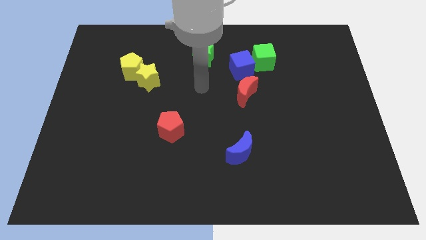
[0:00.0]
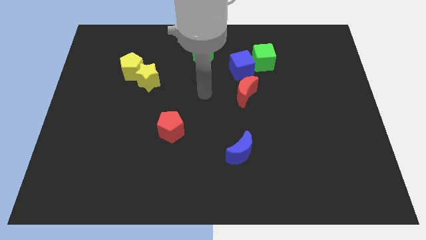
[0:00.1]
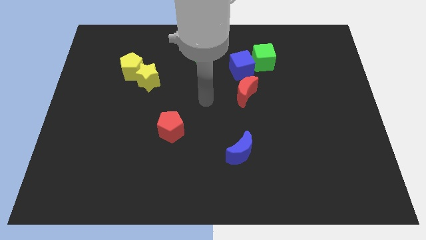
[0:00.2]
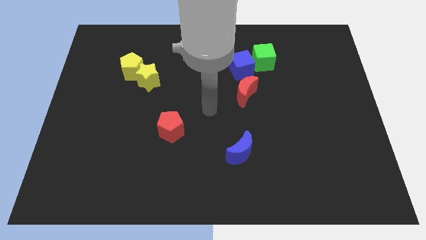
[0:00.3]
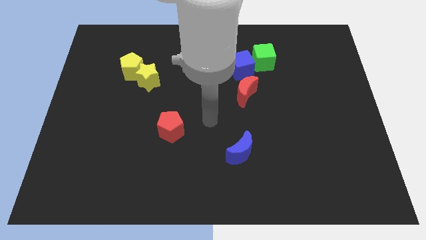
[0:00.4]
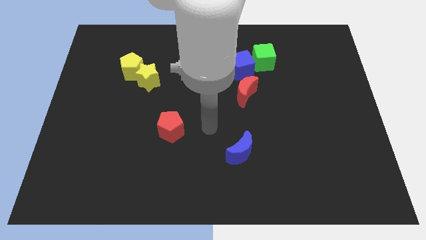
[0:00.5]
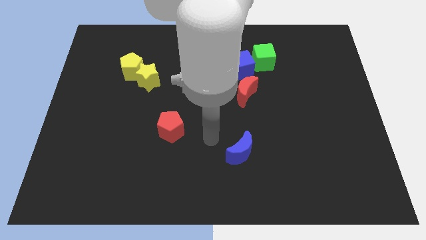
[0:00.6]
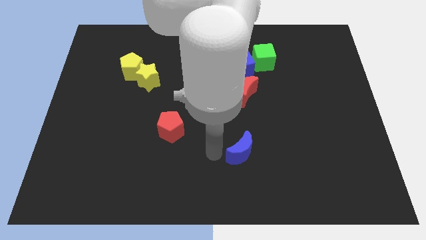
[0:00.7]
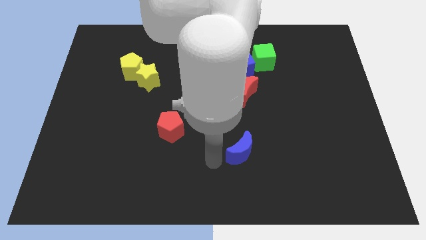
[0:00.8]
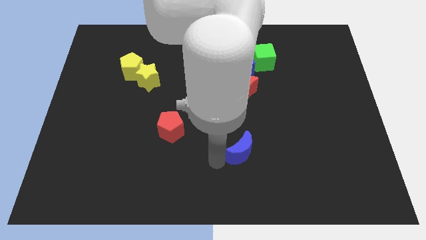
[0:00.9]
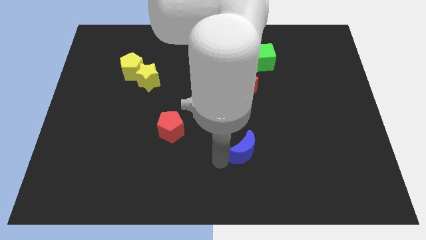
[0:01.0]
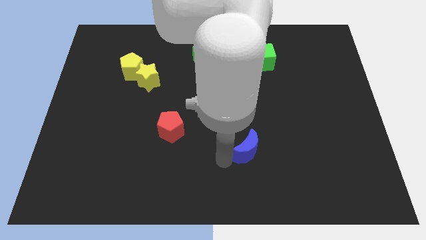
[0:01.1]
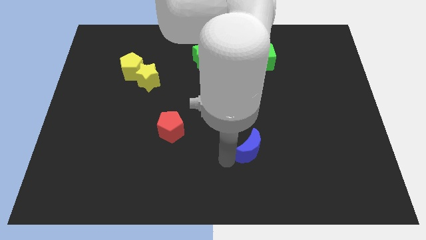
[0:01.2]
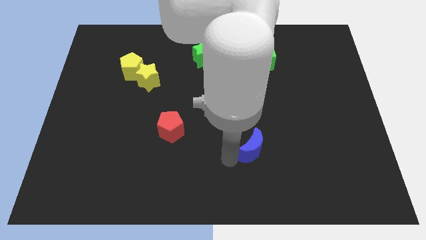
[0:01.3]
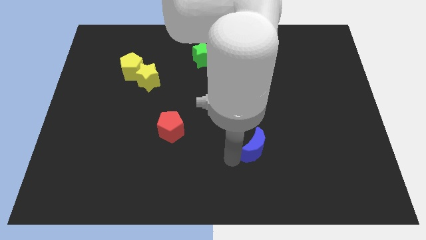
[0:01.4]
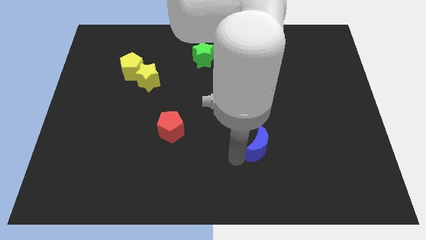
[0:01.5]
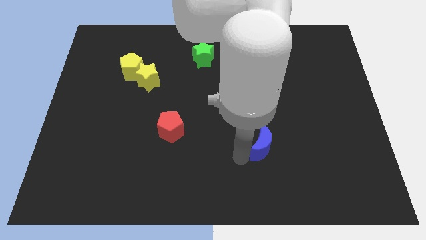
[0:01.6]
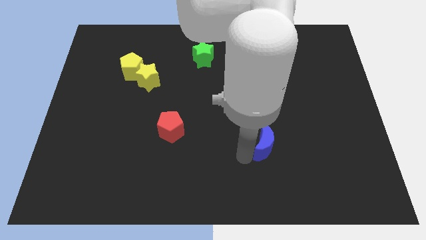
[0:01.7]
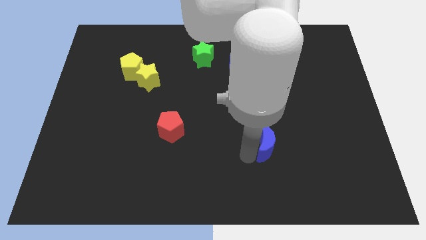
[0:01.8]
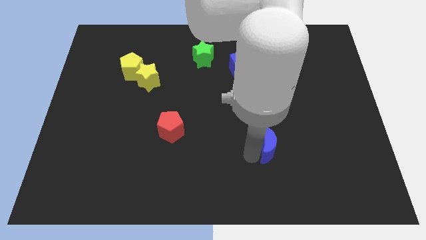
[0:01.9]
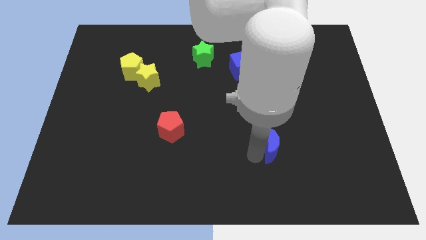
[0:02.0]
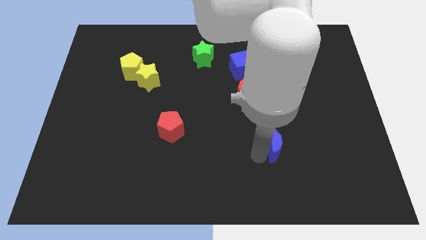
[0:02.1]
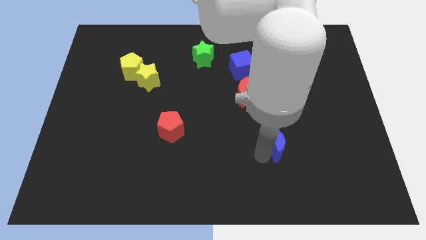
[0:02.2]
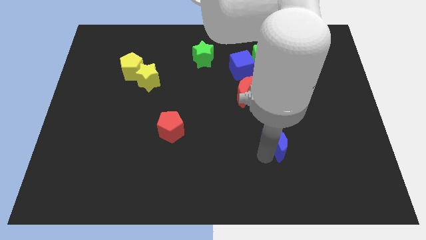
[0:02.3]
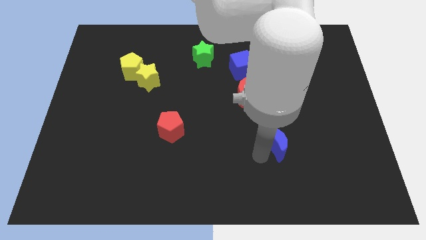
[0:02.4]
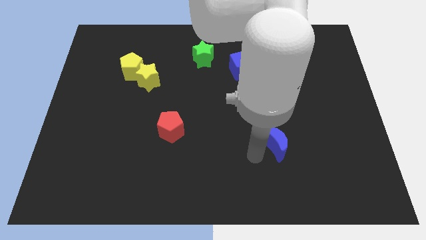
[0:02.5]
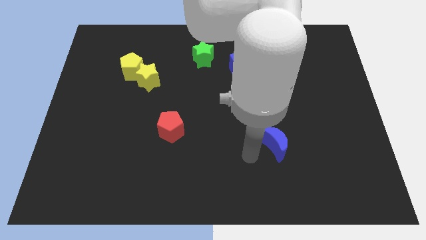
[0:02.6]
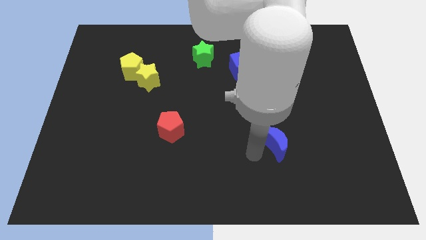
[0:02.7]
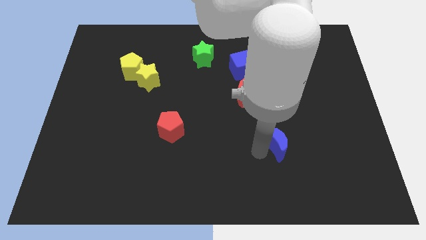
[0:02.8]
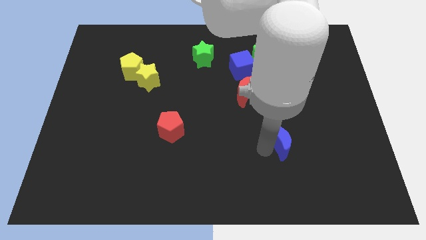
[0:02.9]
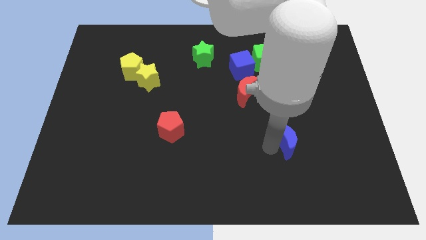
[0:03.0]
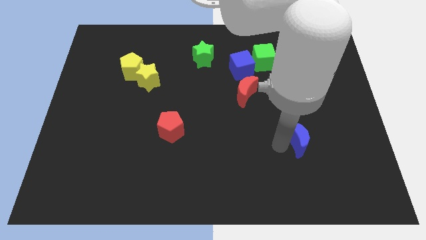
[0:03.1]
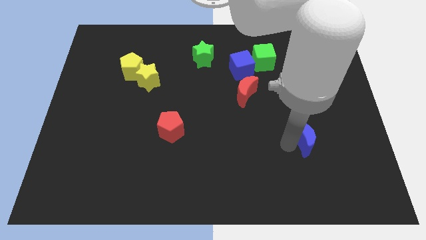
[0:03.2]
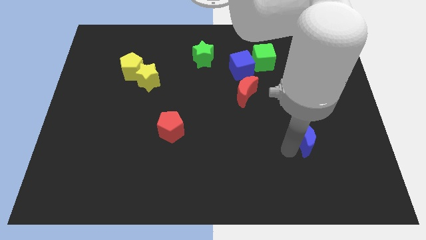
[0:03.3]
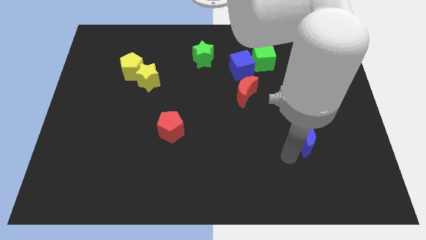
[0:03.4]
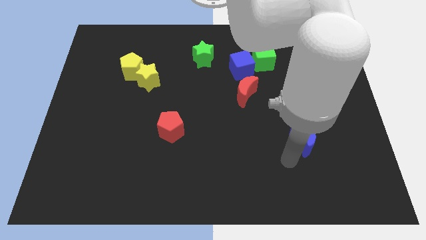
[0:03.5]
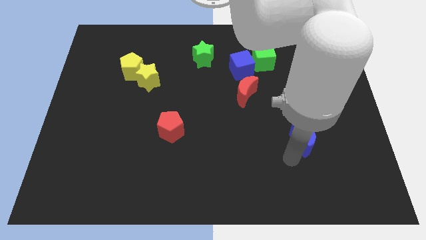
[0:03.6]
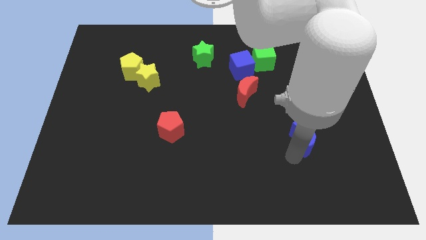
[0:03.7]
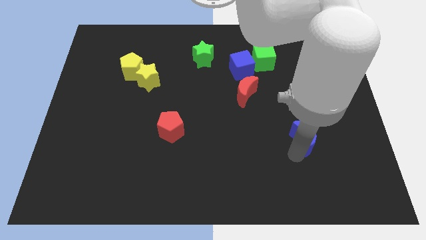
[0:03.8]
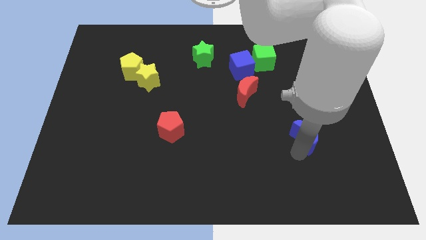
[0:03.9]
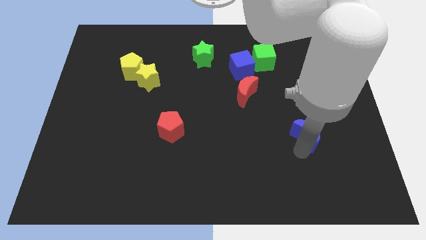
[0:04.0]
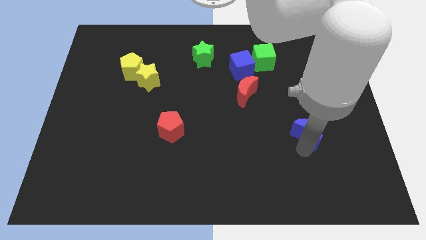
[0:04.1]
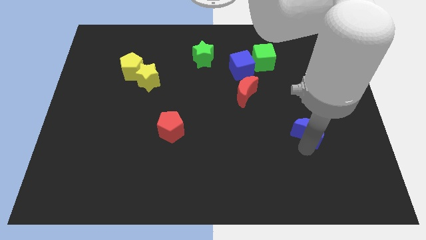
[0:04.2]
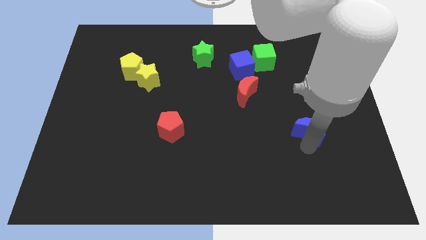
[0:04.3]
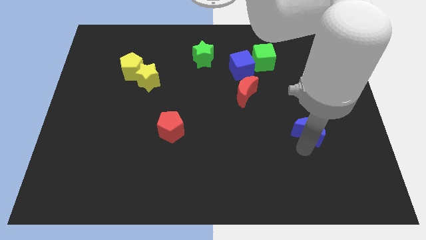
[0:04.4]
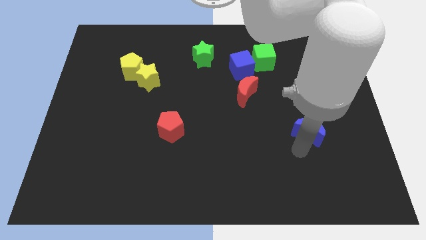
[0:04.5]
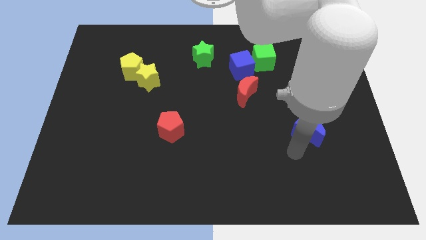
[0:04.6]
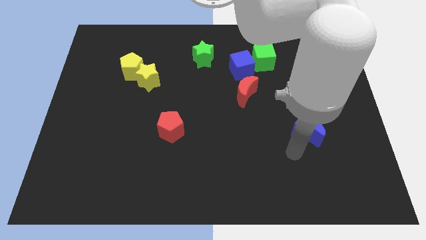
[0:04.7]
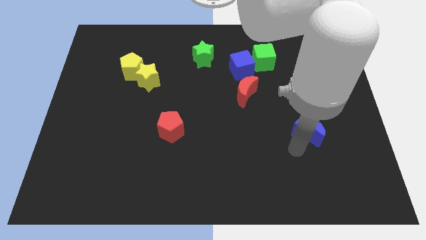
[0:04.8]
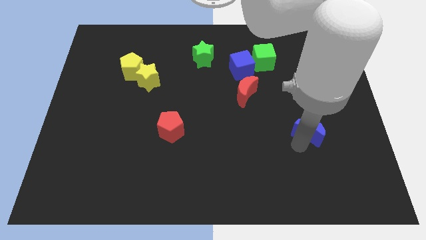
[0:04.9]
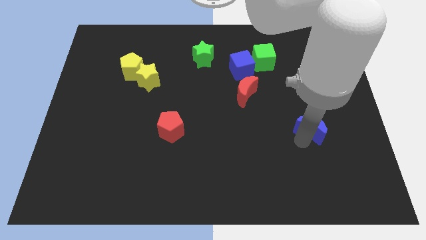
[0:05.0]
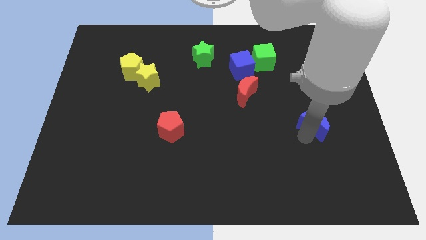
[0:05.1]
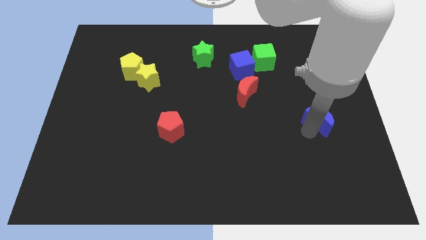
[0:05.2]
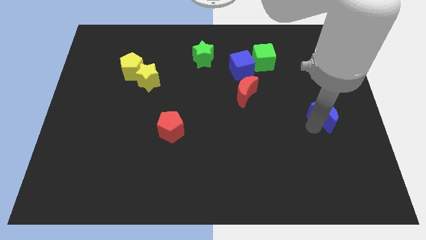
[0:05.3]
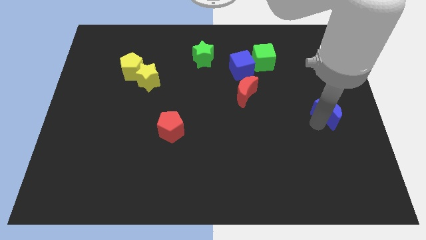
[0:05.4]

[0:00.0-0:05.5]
move the blue moon to the right side

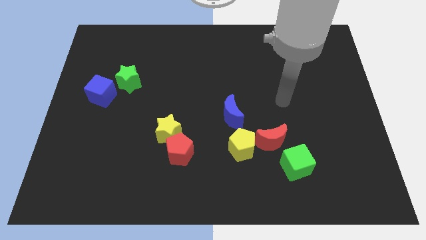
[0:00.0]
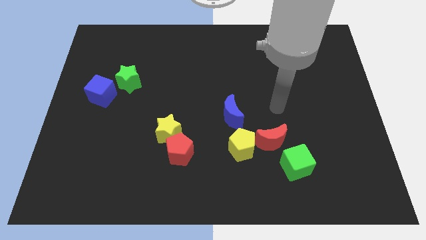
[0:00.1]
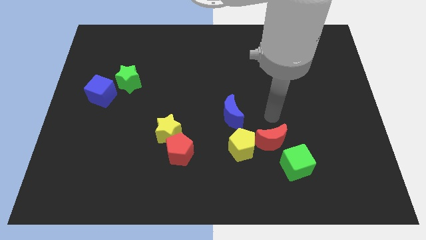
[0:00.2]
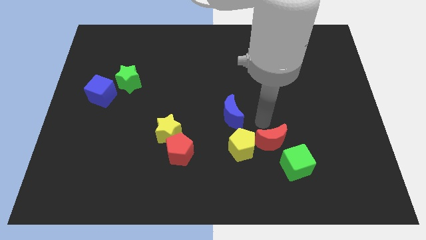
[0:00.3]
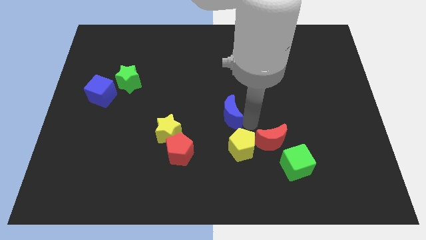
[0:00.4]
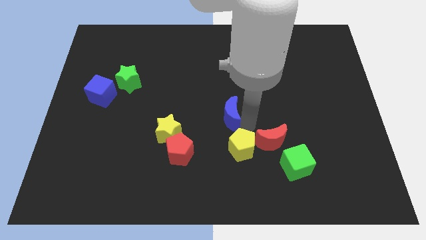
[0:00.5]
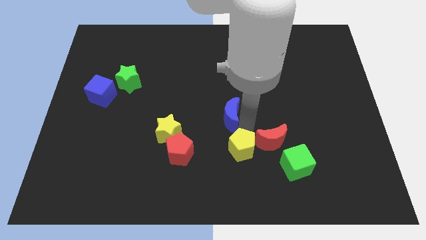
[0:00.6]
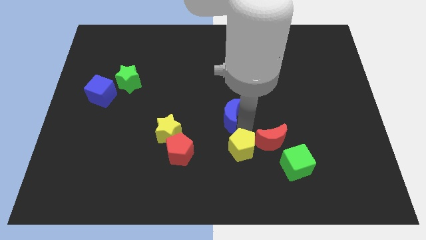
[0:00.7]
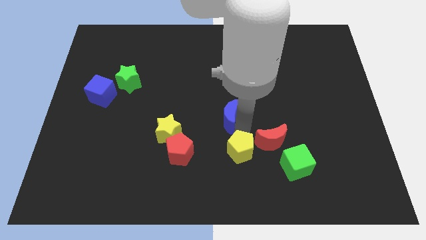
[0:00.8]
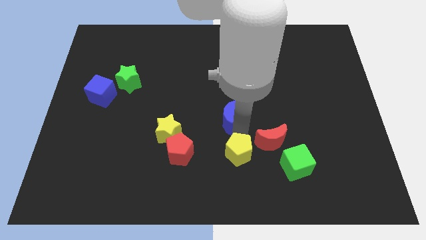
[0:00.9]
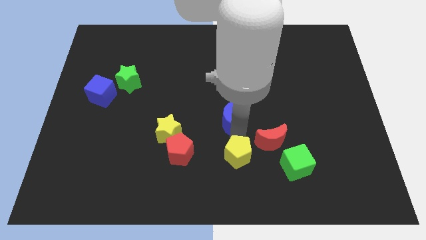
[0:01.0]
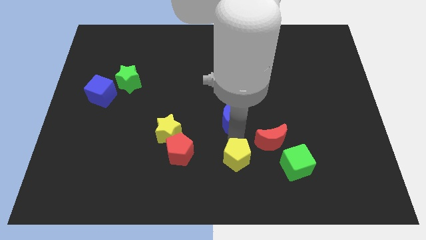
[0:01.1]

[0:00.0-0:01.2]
push the yellow pentagon to the bottom

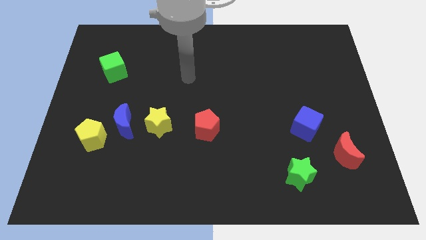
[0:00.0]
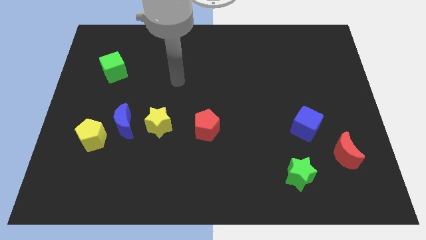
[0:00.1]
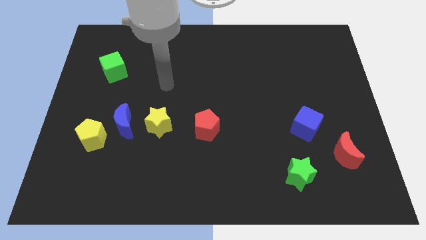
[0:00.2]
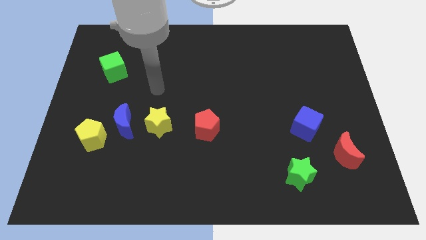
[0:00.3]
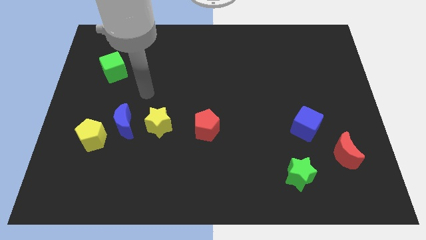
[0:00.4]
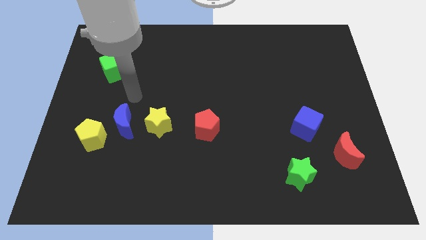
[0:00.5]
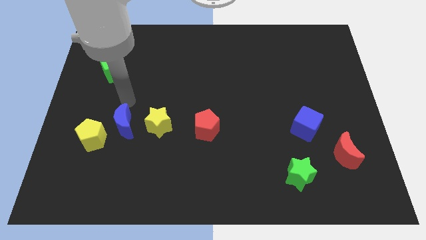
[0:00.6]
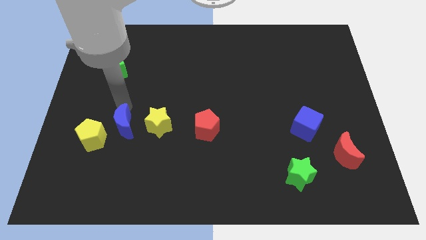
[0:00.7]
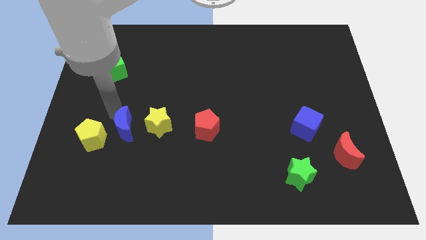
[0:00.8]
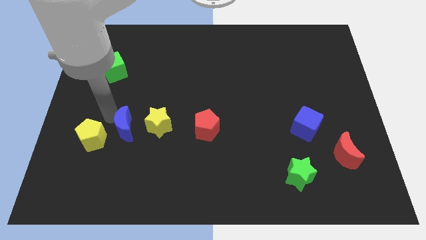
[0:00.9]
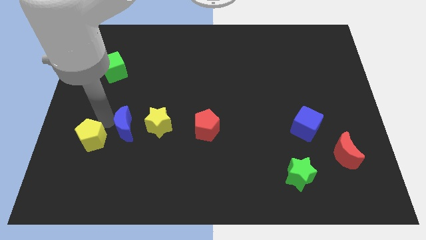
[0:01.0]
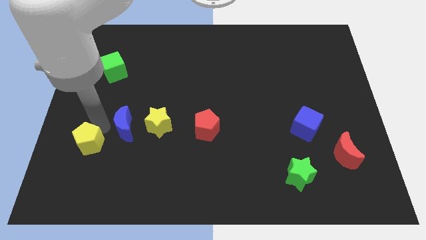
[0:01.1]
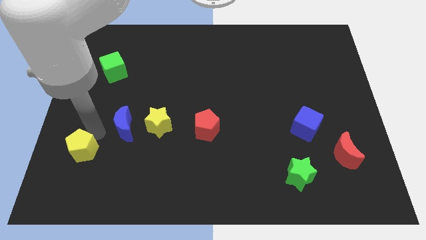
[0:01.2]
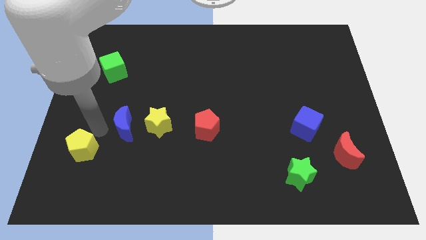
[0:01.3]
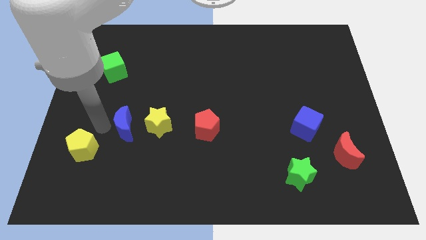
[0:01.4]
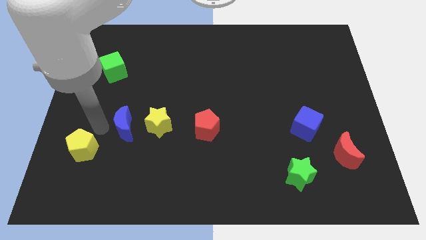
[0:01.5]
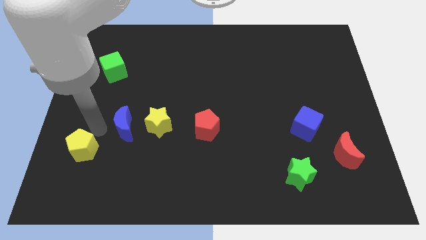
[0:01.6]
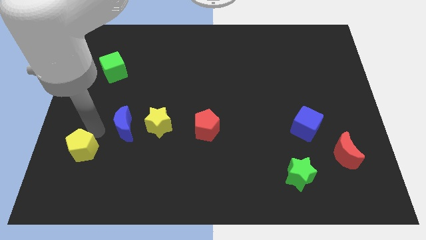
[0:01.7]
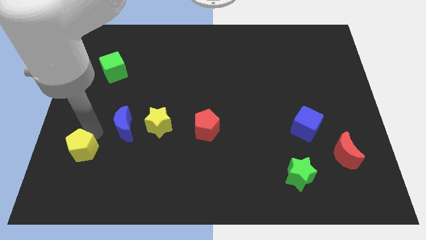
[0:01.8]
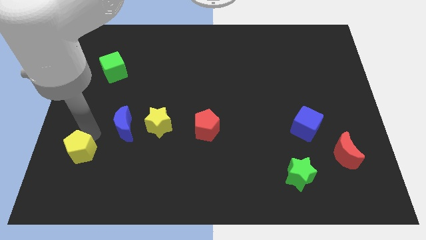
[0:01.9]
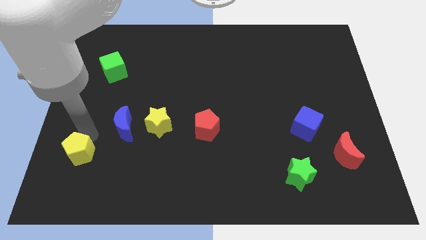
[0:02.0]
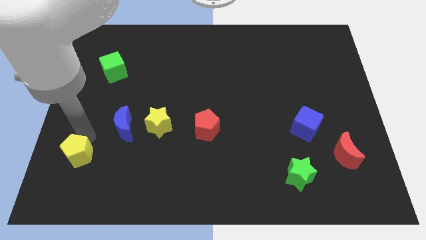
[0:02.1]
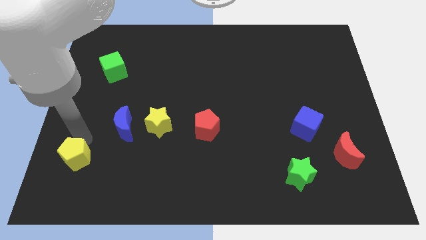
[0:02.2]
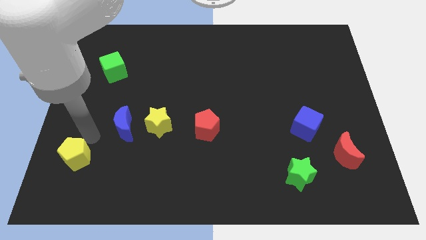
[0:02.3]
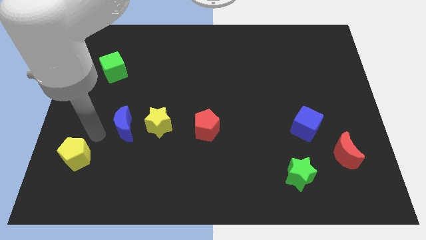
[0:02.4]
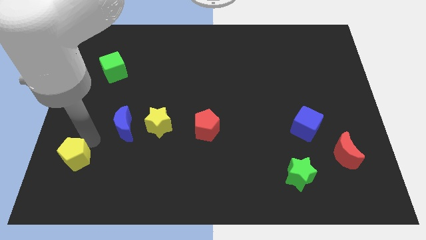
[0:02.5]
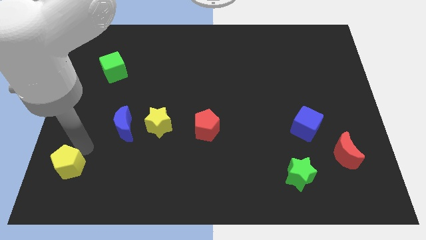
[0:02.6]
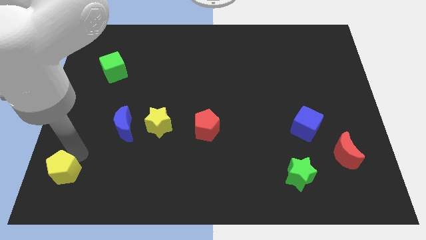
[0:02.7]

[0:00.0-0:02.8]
move the yellow pentagon to the bottom left corner
